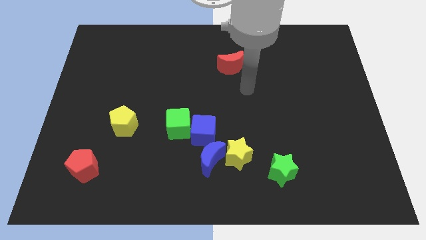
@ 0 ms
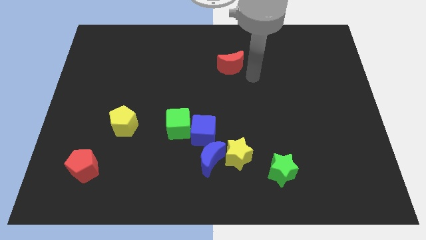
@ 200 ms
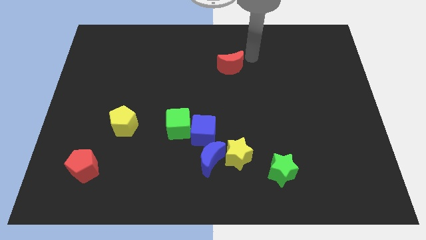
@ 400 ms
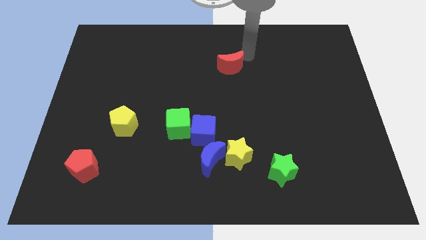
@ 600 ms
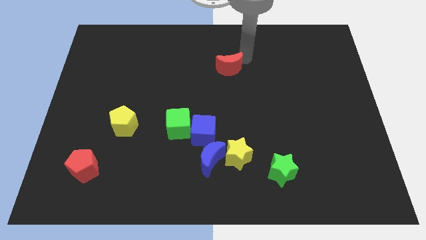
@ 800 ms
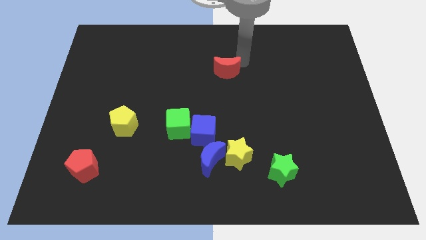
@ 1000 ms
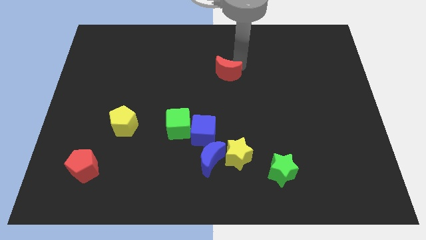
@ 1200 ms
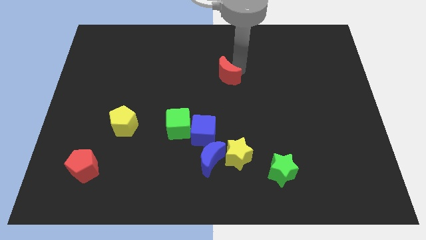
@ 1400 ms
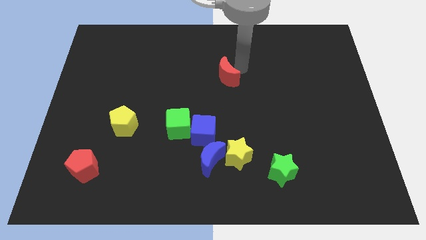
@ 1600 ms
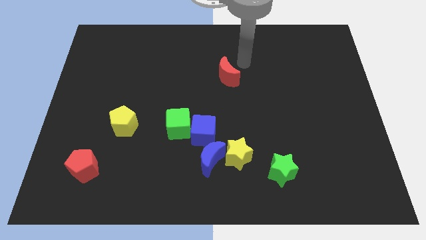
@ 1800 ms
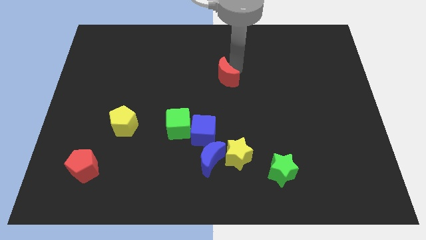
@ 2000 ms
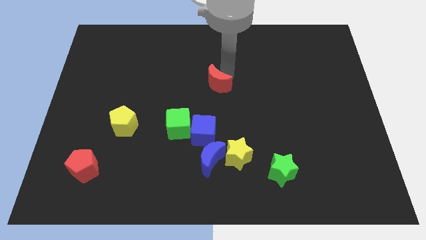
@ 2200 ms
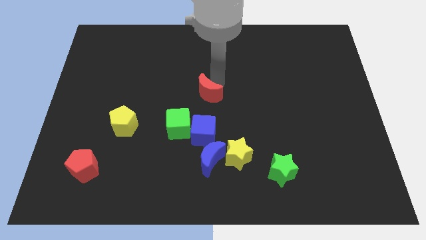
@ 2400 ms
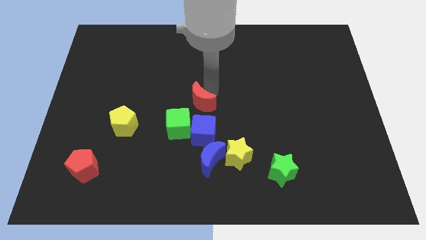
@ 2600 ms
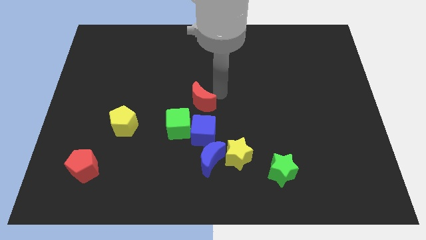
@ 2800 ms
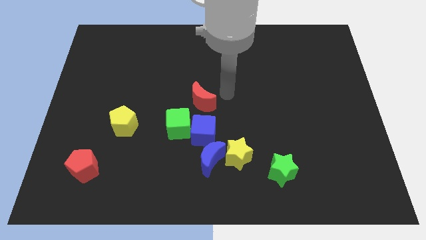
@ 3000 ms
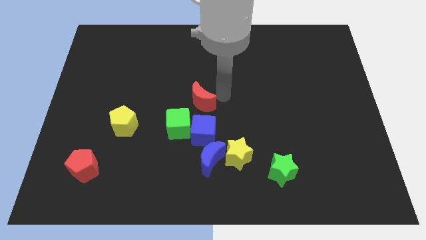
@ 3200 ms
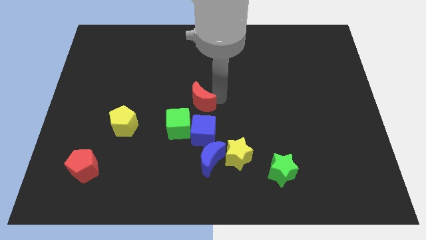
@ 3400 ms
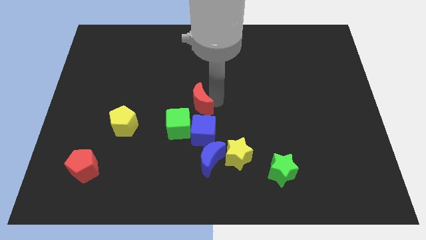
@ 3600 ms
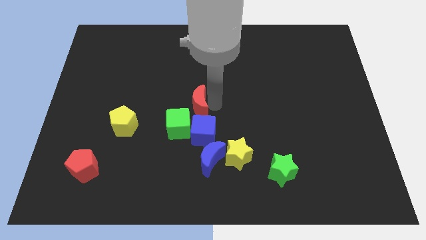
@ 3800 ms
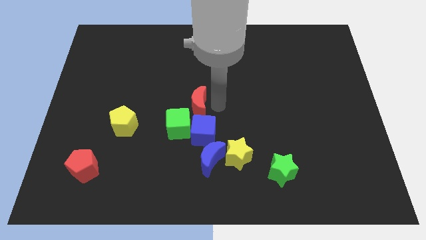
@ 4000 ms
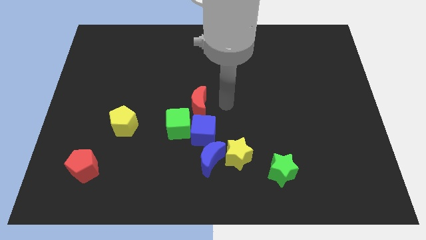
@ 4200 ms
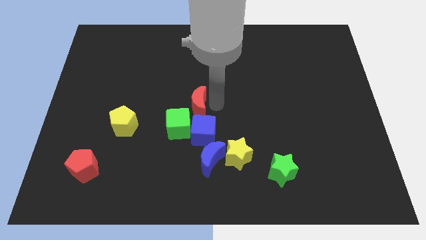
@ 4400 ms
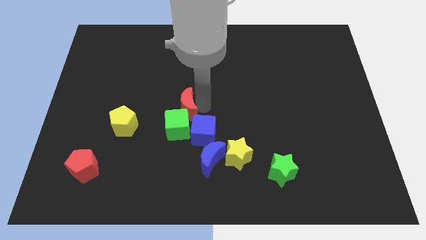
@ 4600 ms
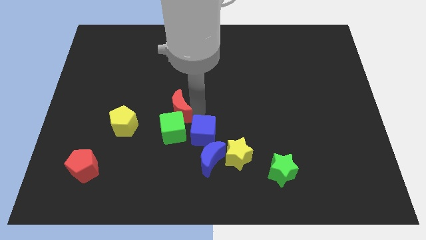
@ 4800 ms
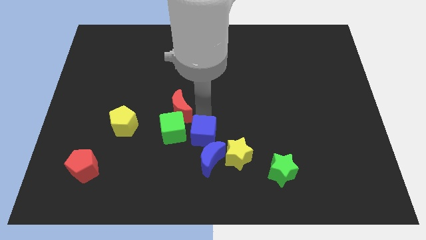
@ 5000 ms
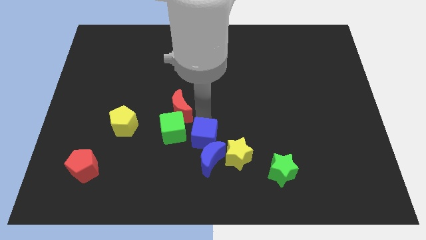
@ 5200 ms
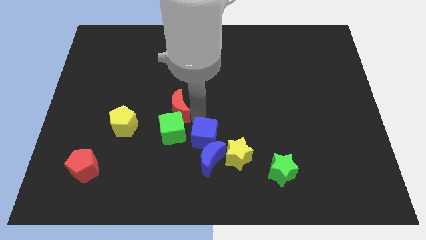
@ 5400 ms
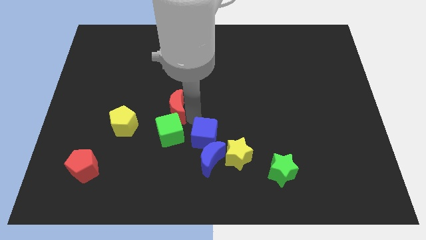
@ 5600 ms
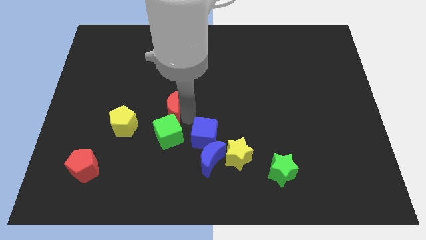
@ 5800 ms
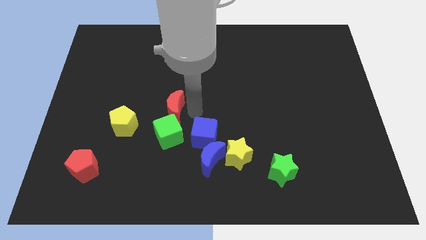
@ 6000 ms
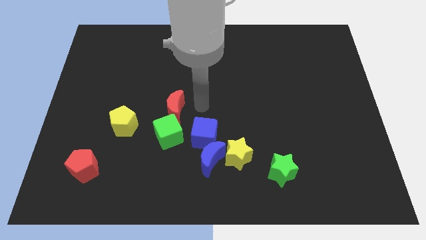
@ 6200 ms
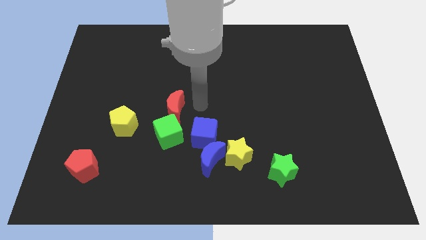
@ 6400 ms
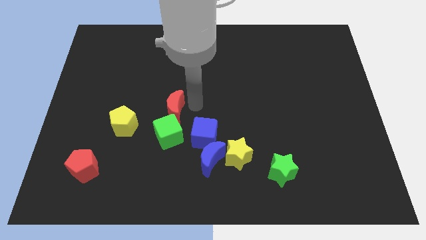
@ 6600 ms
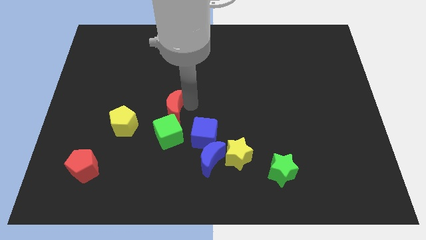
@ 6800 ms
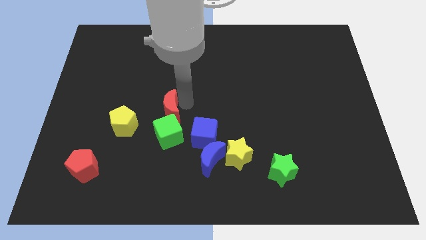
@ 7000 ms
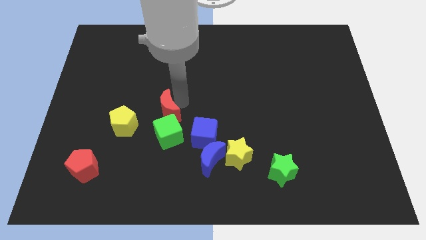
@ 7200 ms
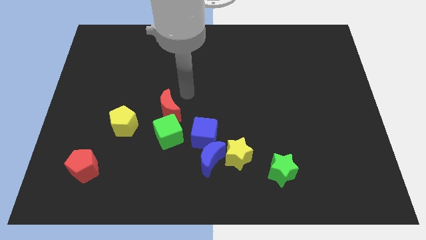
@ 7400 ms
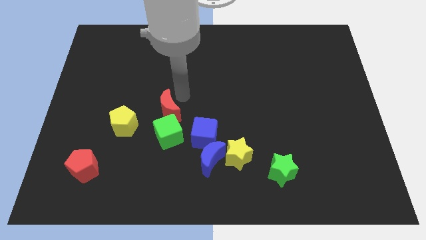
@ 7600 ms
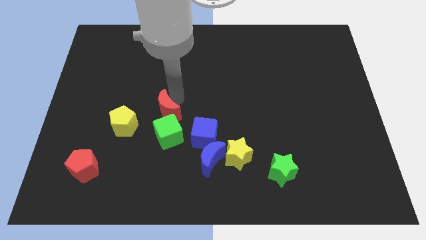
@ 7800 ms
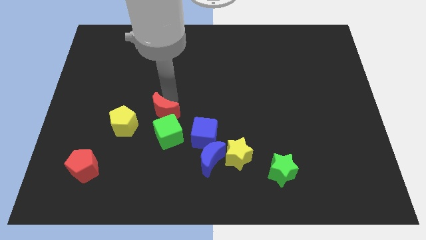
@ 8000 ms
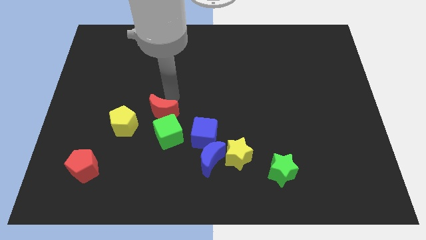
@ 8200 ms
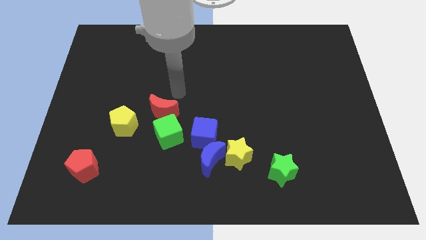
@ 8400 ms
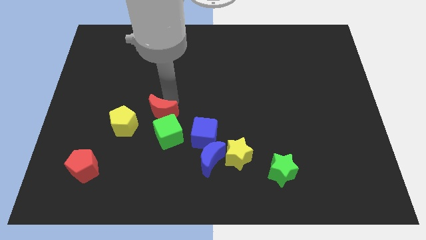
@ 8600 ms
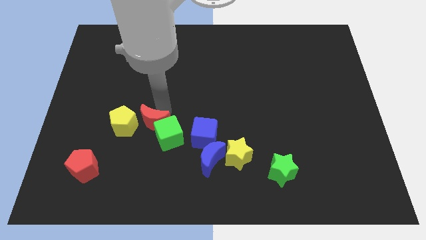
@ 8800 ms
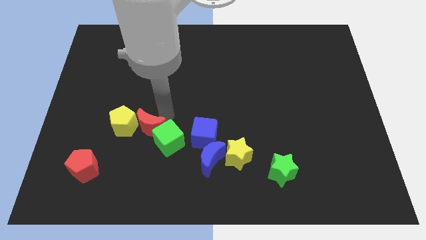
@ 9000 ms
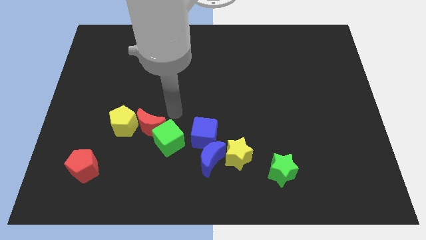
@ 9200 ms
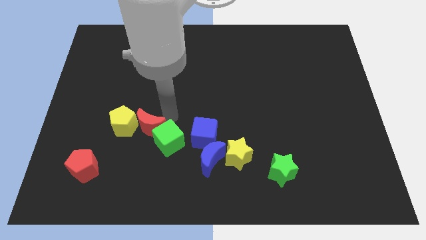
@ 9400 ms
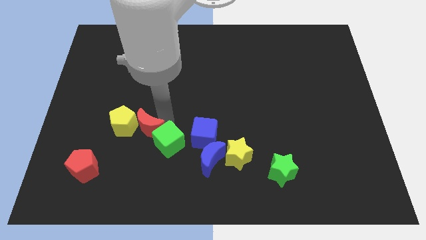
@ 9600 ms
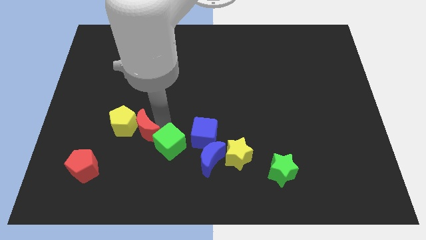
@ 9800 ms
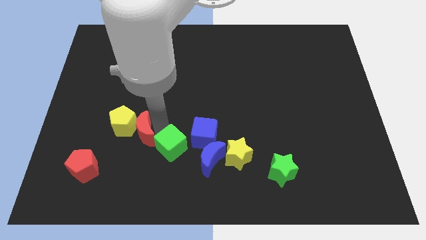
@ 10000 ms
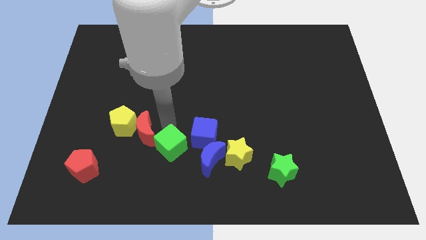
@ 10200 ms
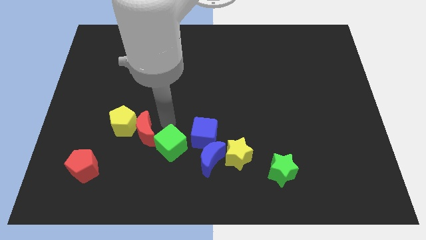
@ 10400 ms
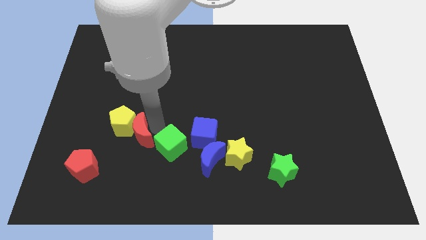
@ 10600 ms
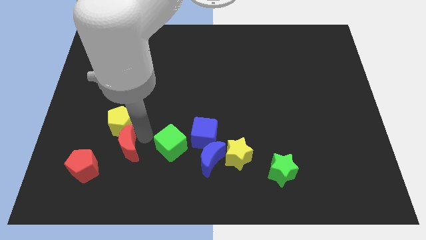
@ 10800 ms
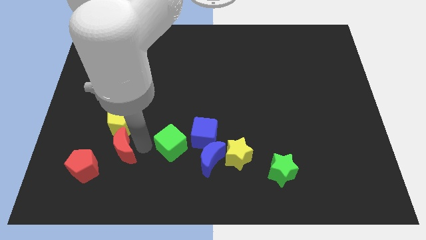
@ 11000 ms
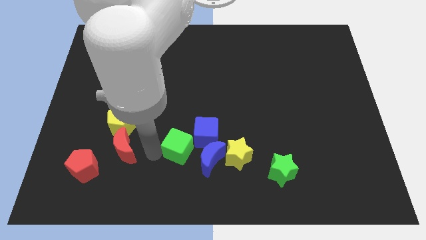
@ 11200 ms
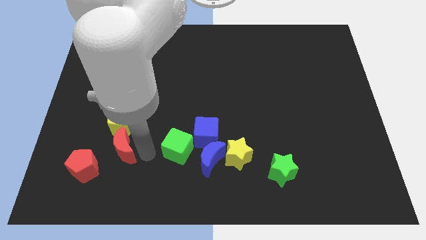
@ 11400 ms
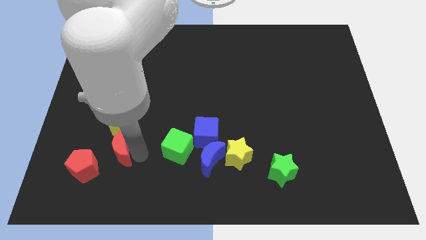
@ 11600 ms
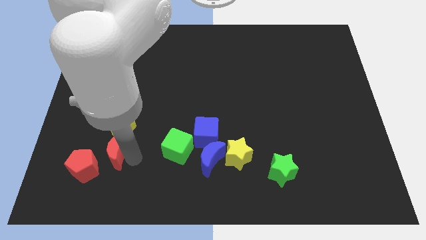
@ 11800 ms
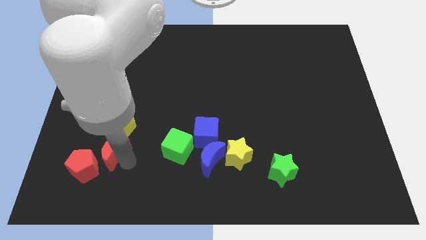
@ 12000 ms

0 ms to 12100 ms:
move the red moon to the bottom left of the yellow pentagon

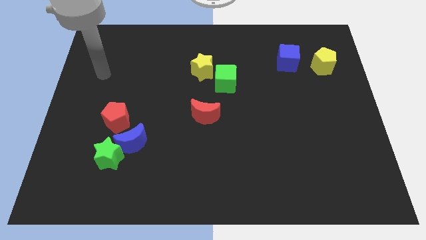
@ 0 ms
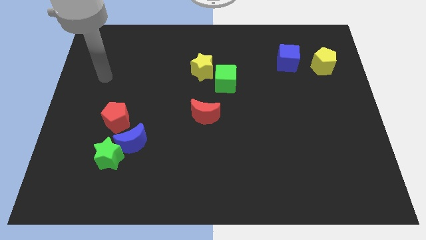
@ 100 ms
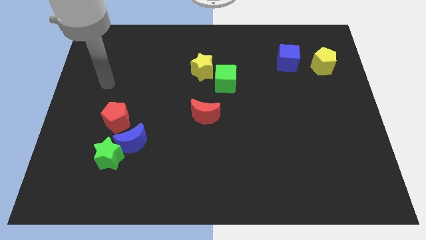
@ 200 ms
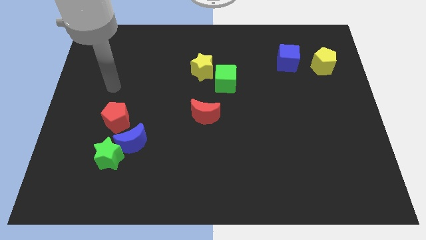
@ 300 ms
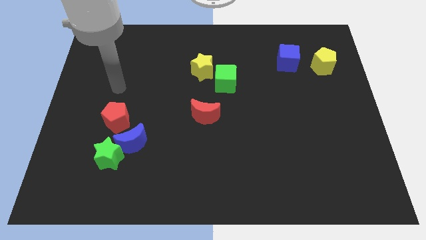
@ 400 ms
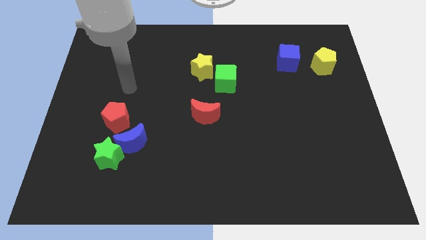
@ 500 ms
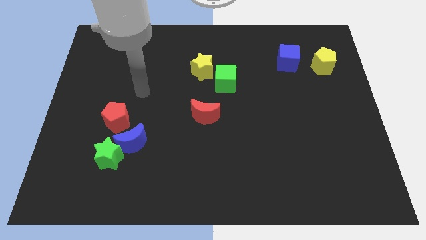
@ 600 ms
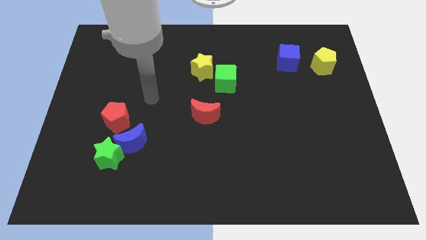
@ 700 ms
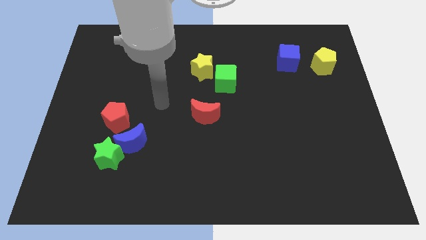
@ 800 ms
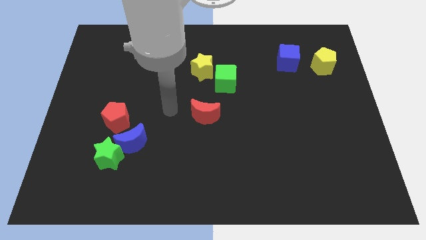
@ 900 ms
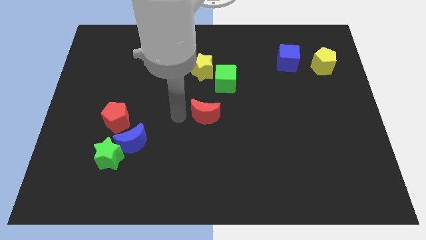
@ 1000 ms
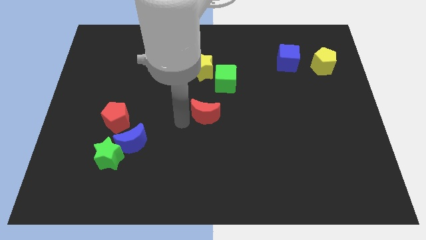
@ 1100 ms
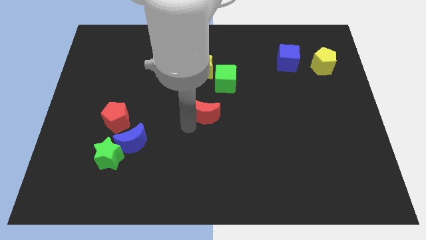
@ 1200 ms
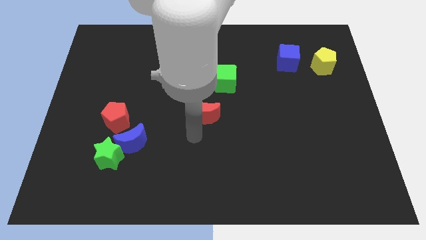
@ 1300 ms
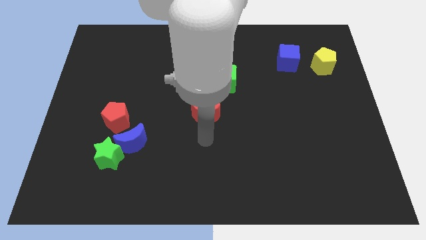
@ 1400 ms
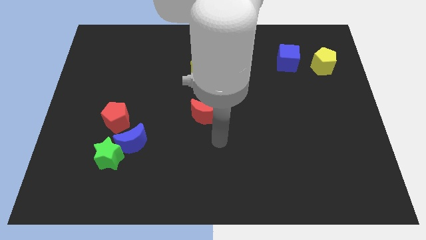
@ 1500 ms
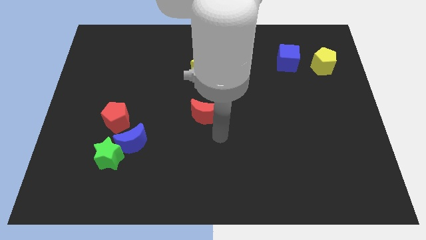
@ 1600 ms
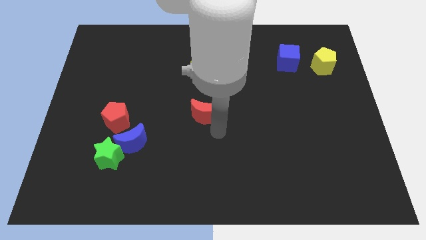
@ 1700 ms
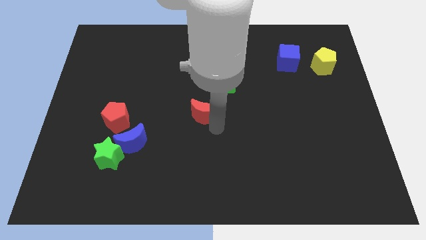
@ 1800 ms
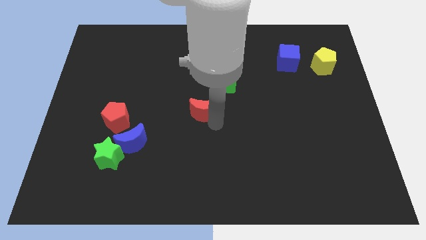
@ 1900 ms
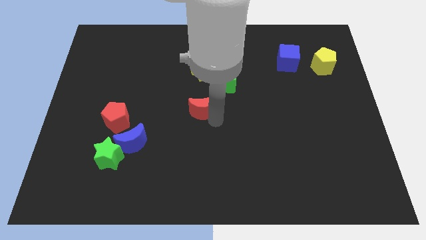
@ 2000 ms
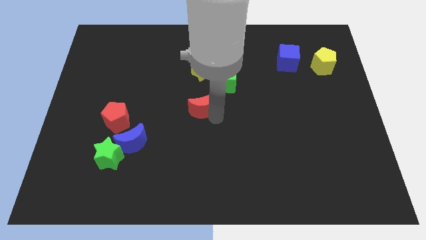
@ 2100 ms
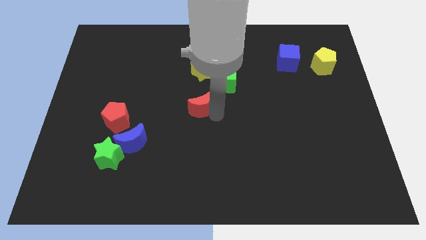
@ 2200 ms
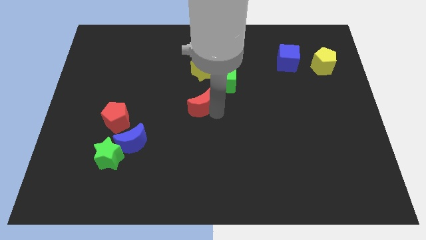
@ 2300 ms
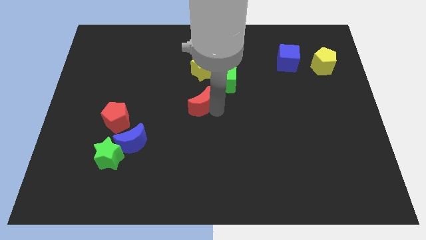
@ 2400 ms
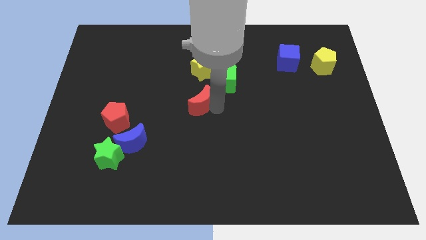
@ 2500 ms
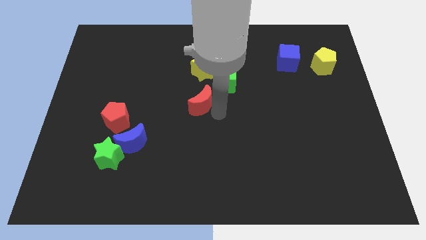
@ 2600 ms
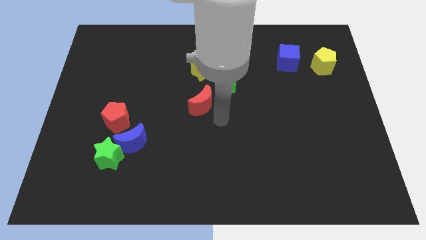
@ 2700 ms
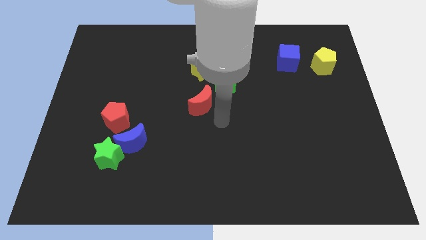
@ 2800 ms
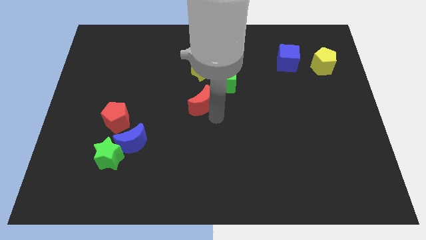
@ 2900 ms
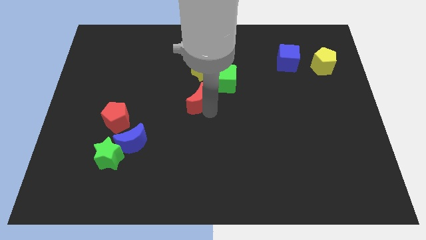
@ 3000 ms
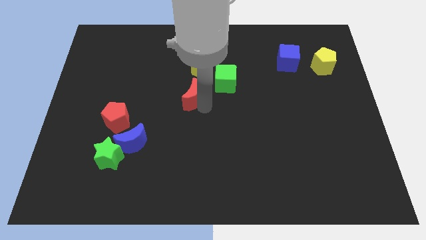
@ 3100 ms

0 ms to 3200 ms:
move the red moon to the bottom left of the yellow star
